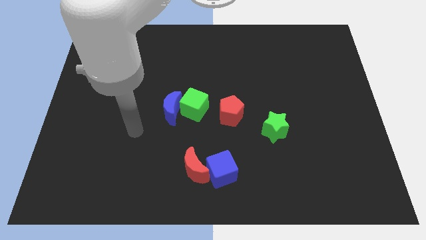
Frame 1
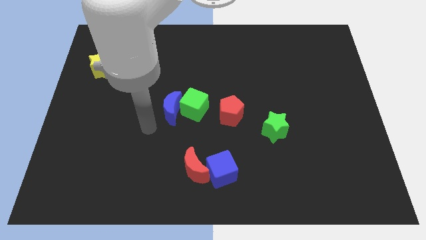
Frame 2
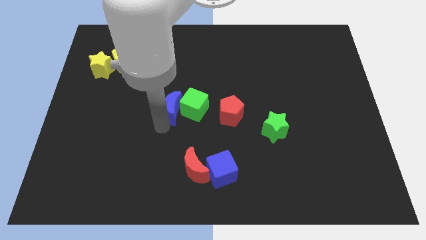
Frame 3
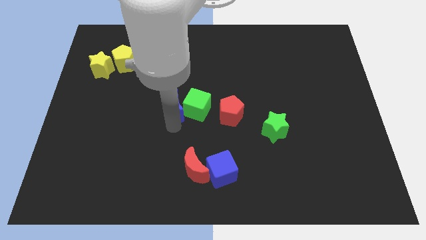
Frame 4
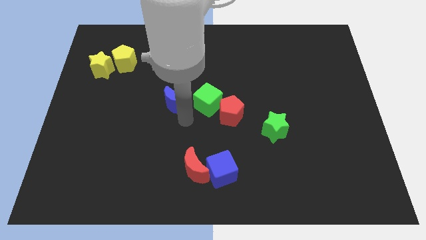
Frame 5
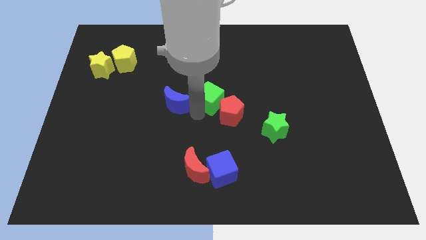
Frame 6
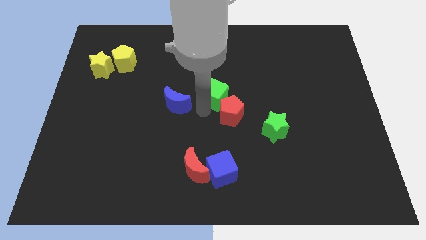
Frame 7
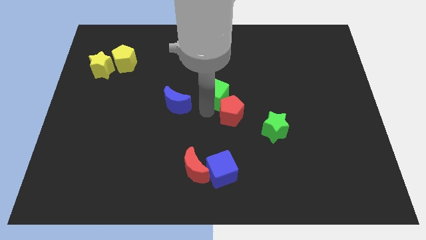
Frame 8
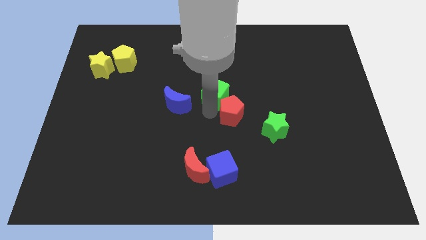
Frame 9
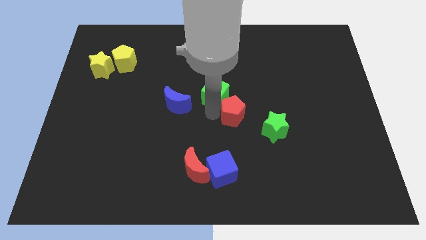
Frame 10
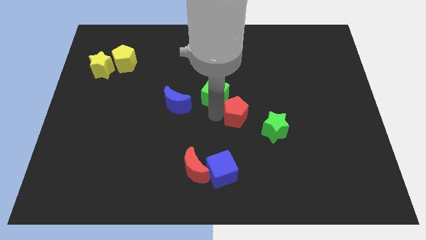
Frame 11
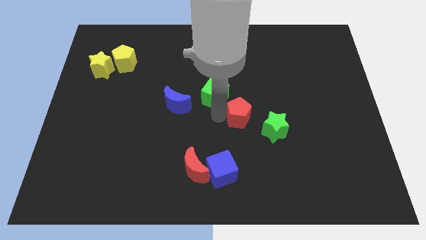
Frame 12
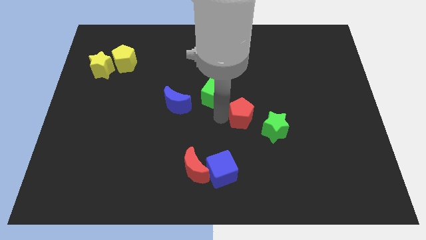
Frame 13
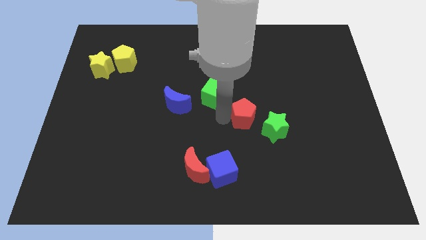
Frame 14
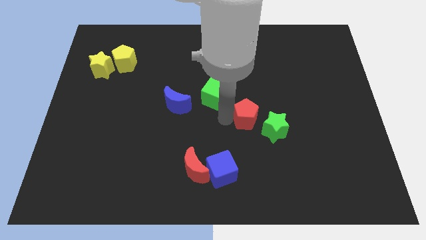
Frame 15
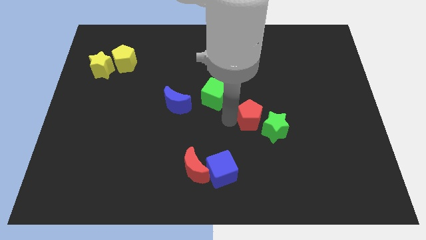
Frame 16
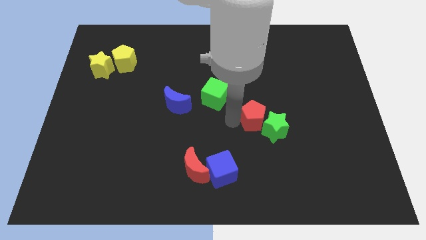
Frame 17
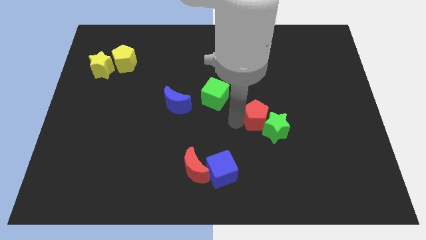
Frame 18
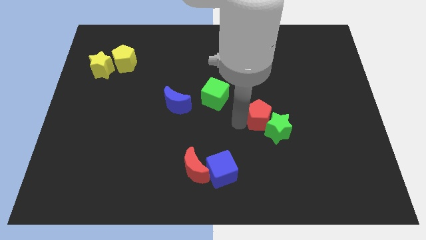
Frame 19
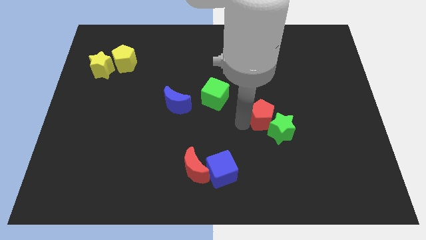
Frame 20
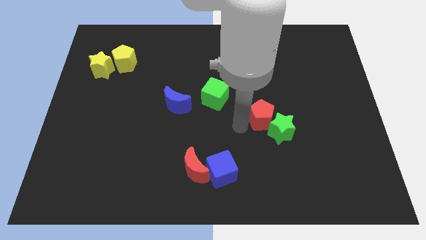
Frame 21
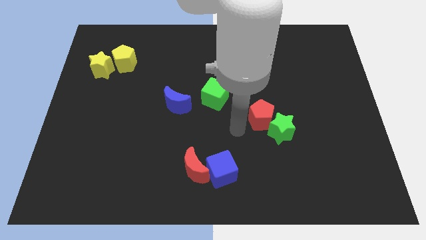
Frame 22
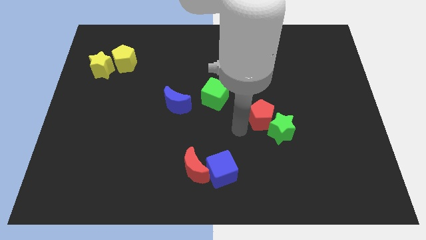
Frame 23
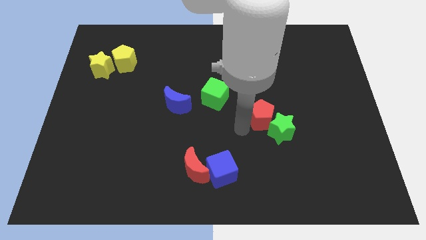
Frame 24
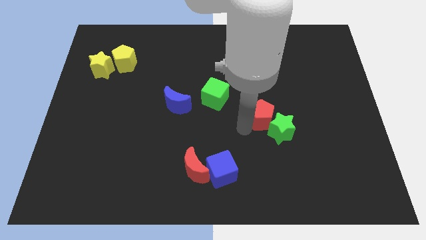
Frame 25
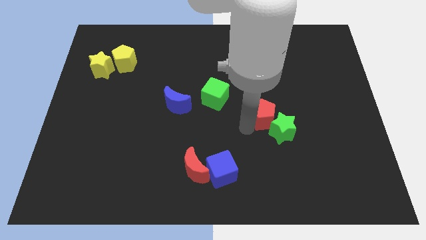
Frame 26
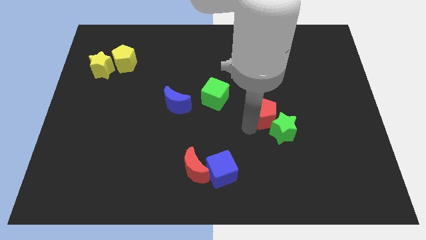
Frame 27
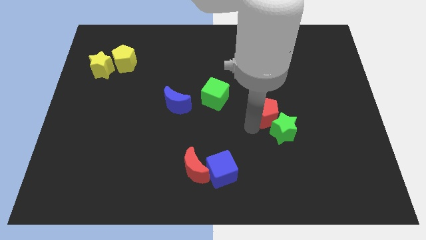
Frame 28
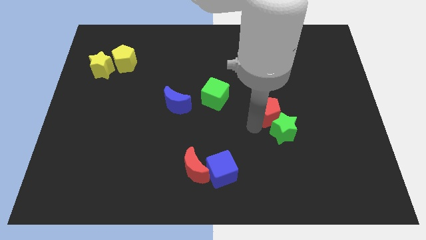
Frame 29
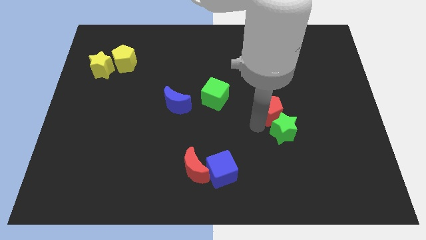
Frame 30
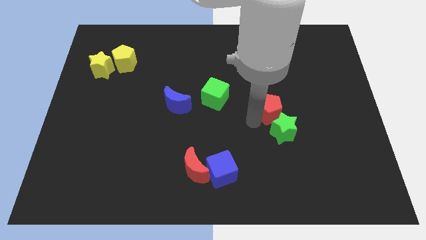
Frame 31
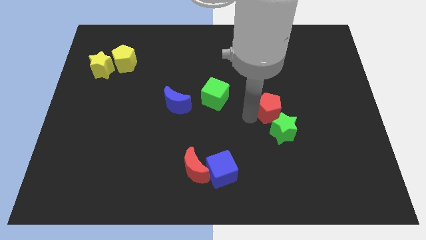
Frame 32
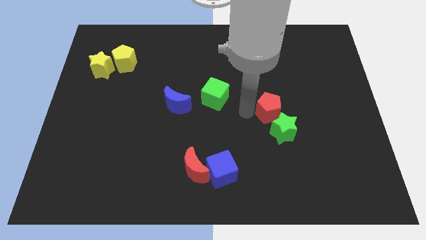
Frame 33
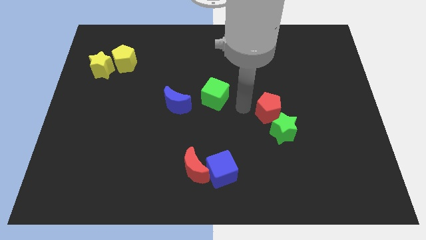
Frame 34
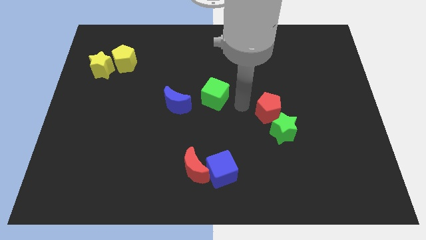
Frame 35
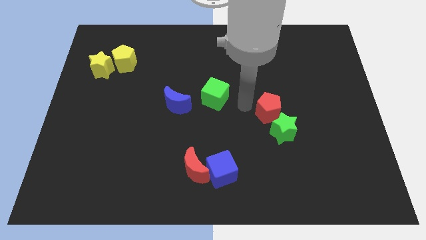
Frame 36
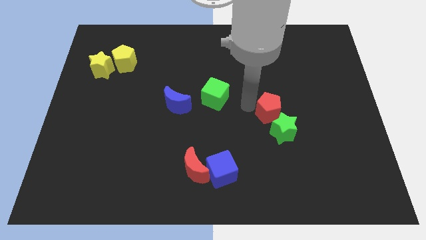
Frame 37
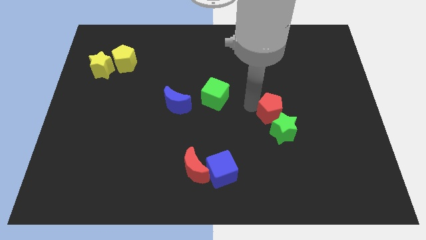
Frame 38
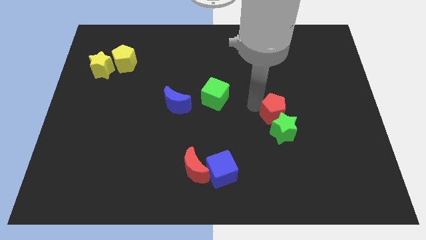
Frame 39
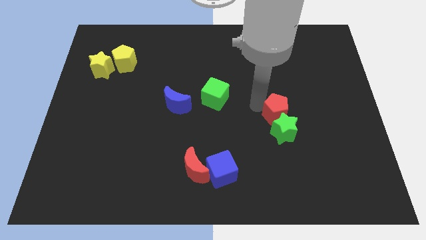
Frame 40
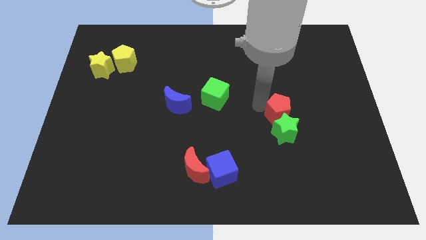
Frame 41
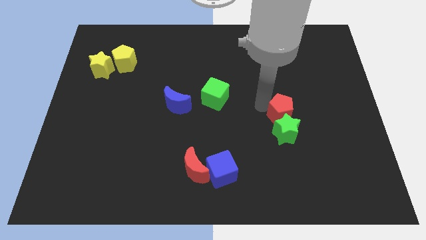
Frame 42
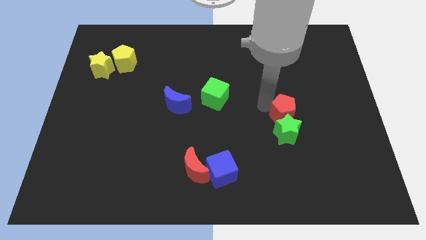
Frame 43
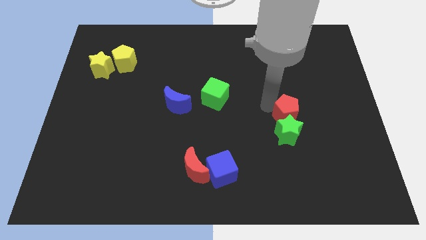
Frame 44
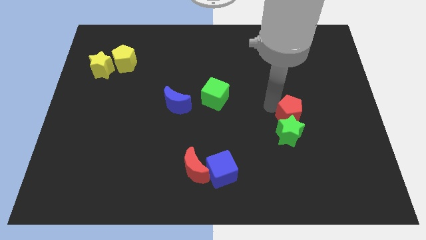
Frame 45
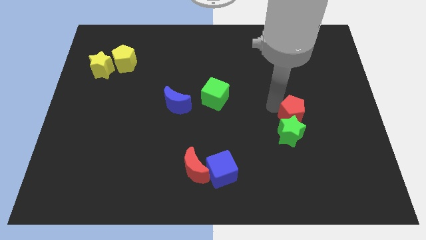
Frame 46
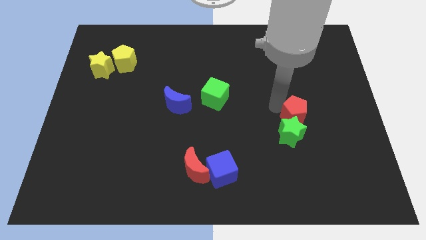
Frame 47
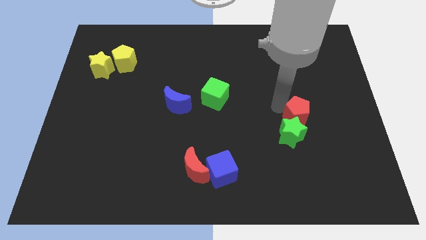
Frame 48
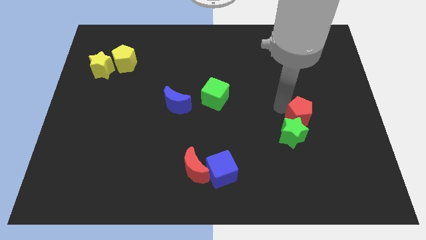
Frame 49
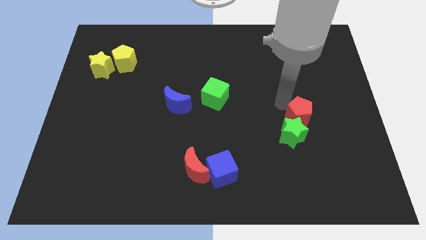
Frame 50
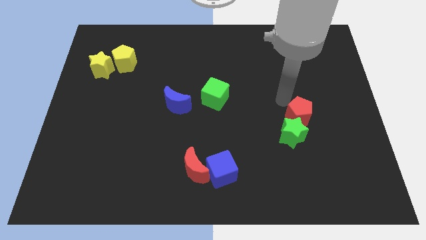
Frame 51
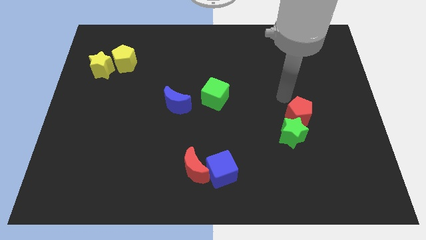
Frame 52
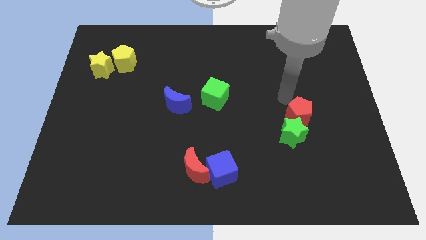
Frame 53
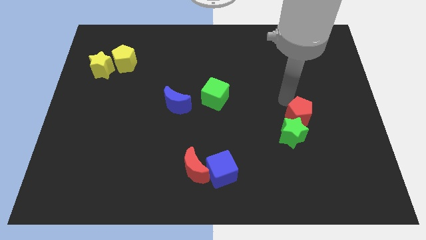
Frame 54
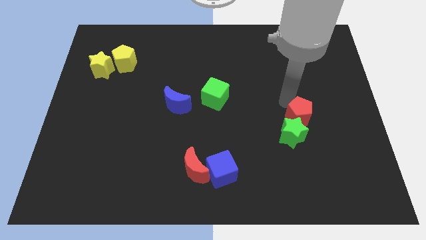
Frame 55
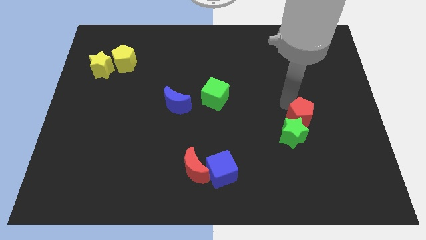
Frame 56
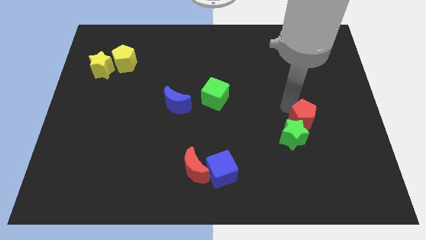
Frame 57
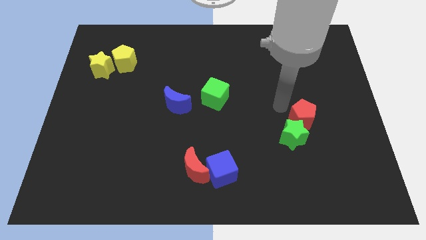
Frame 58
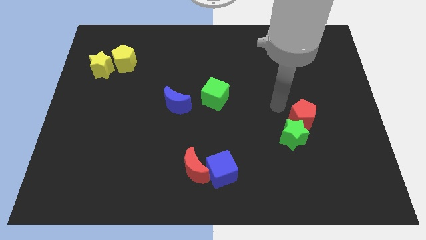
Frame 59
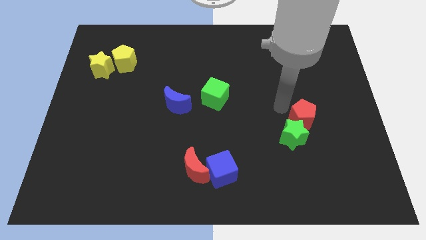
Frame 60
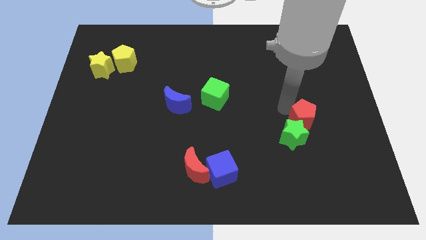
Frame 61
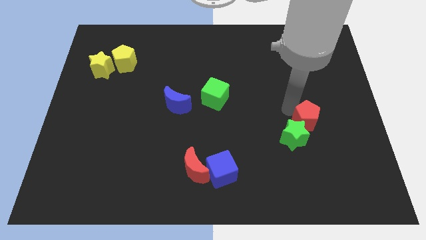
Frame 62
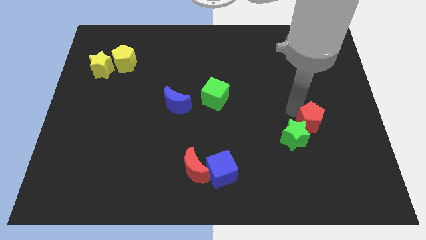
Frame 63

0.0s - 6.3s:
put the red pentagon just right of the green star
